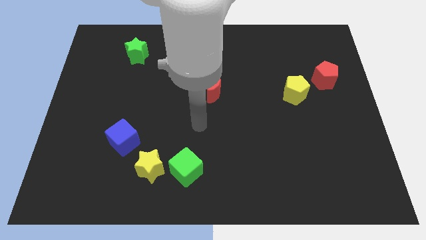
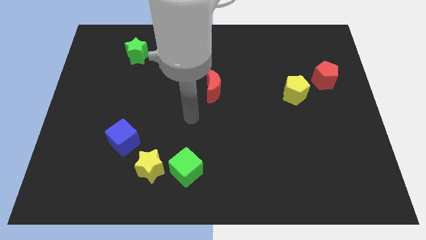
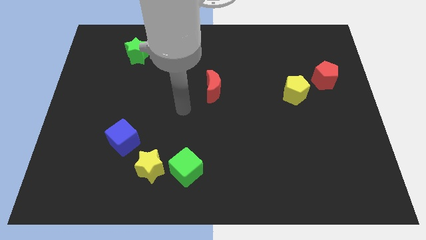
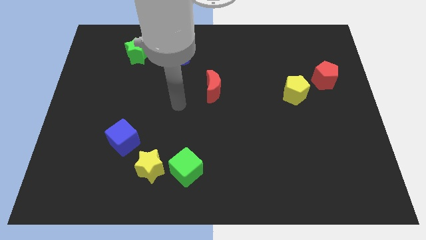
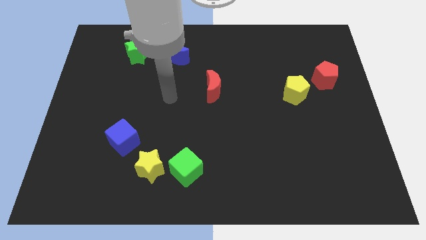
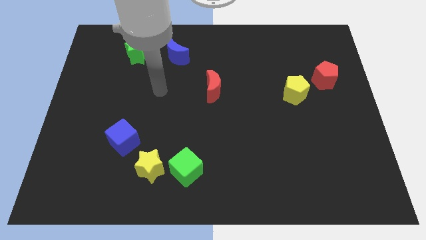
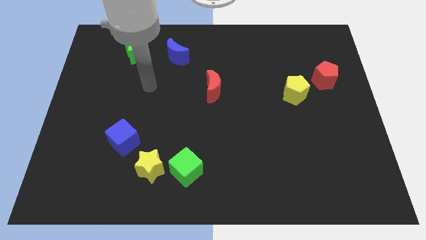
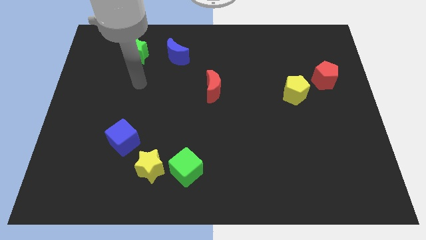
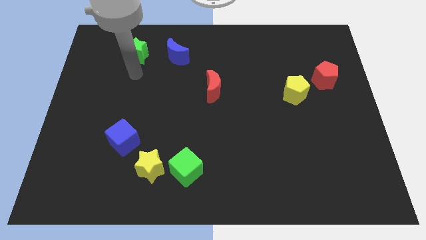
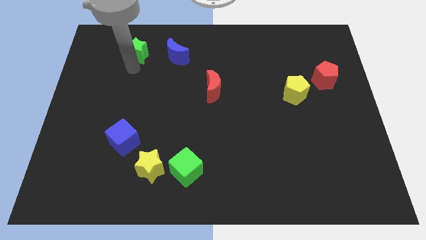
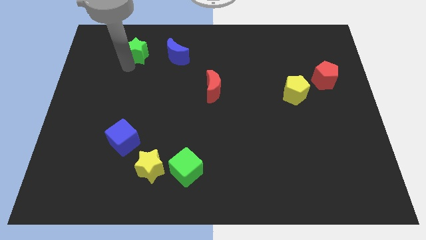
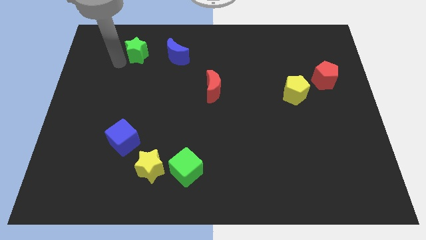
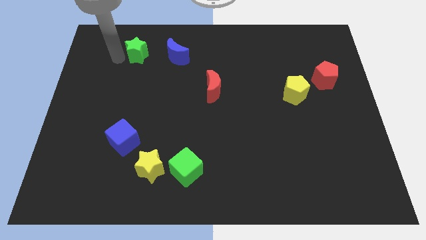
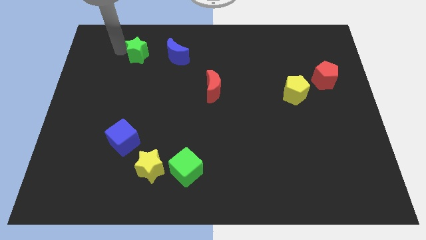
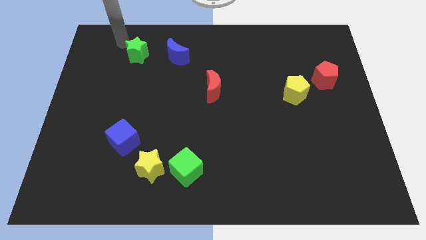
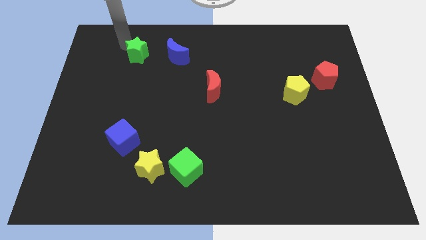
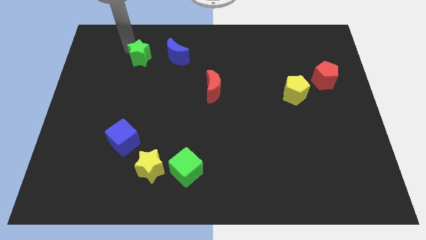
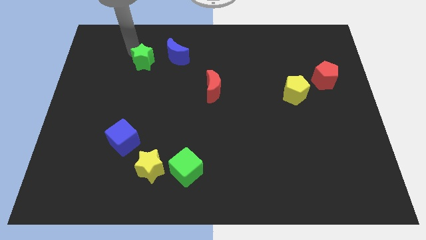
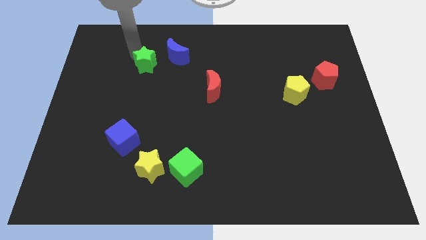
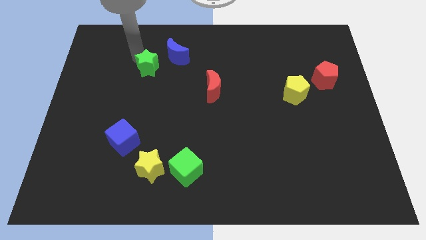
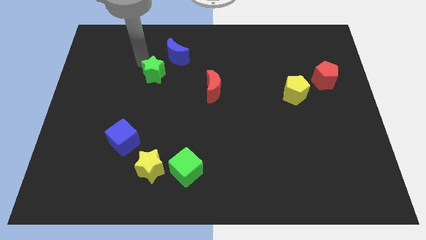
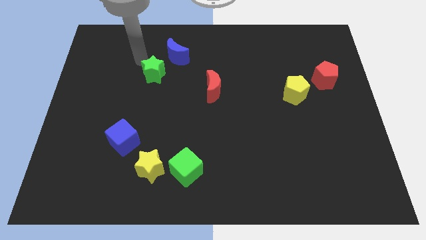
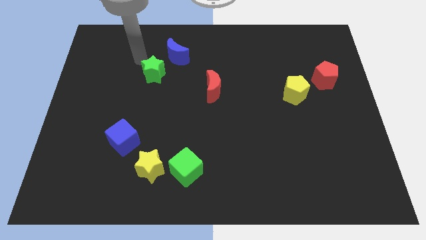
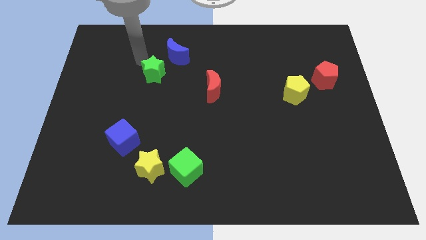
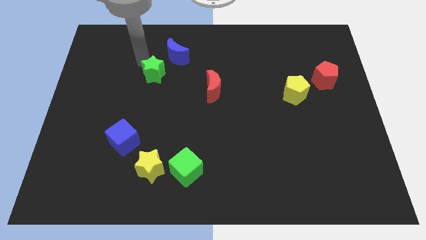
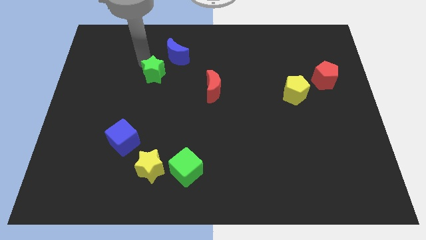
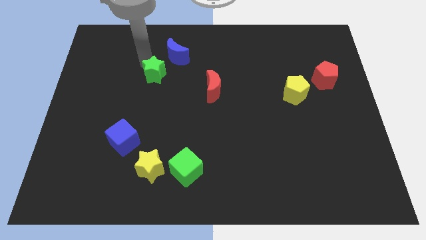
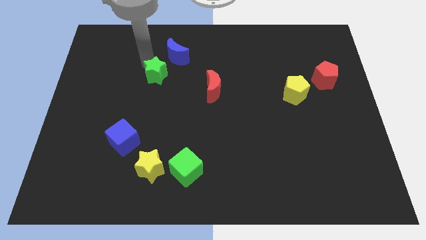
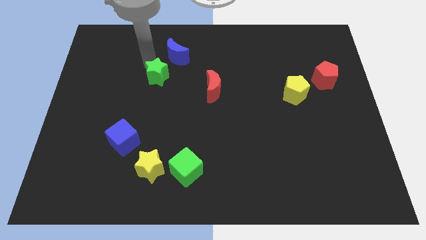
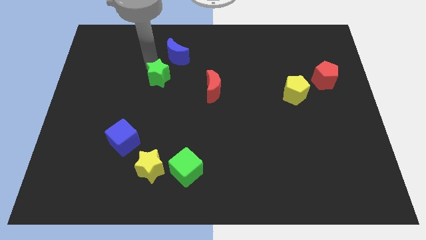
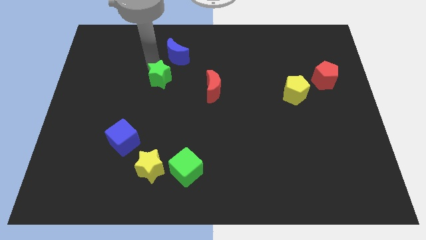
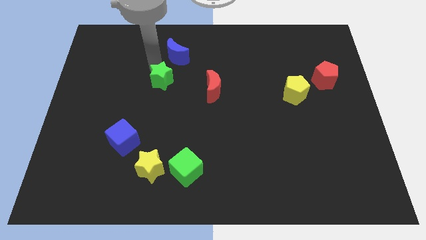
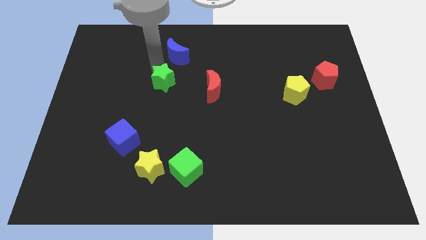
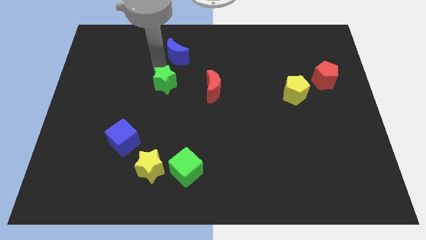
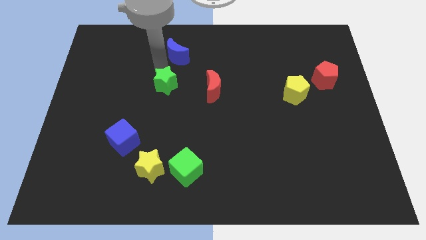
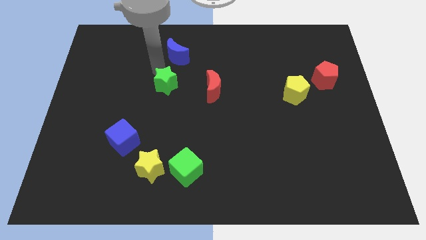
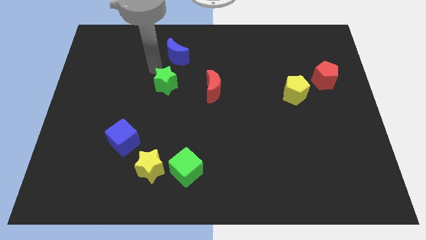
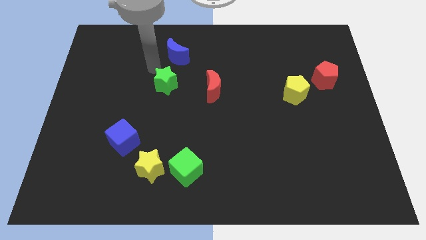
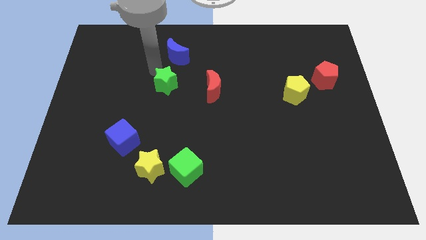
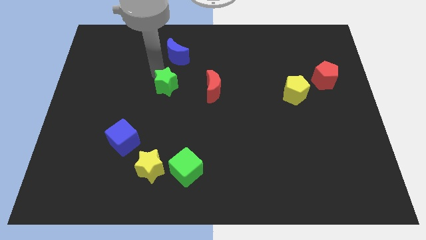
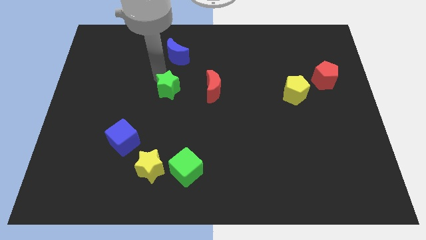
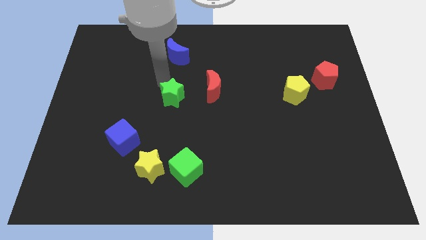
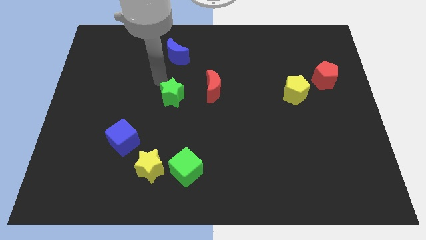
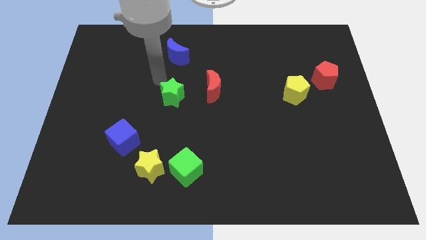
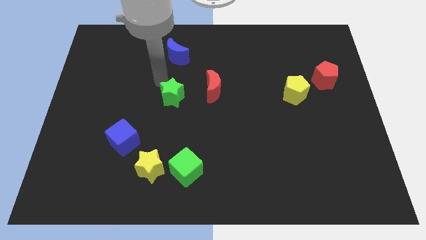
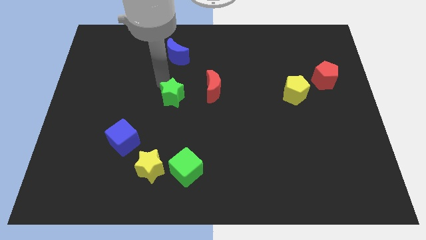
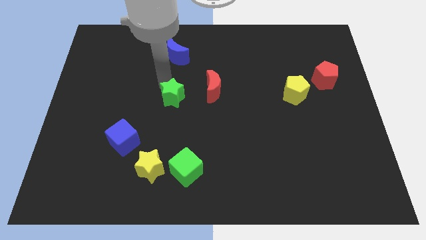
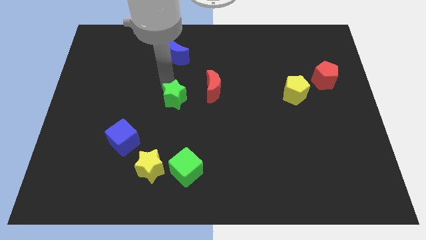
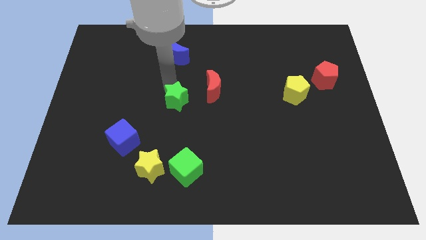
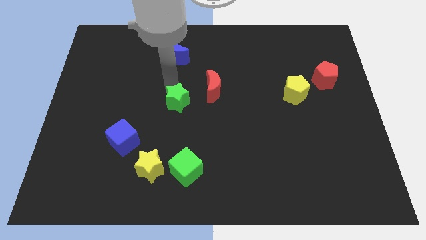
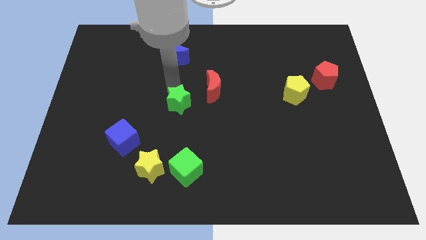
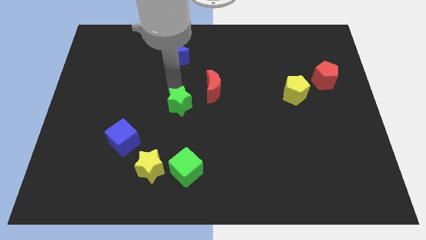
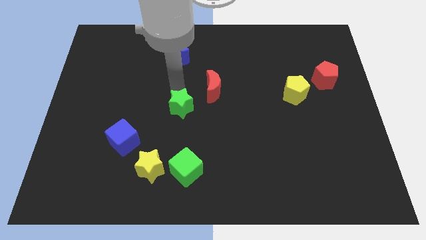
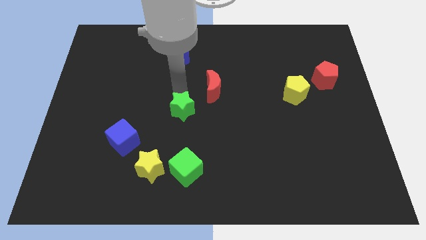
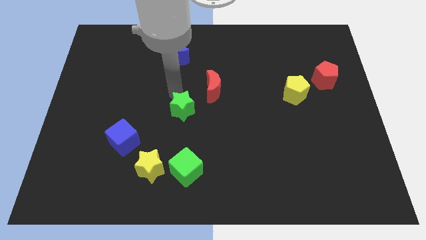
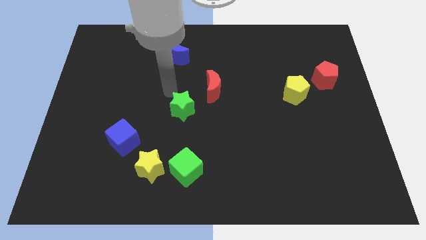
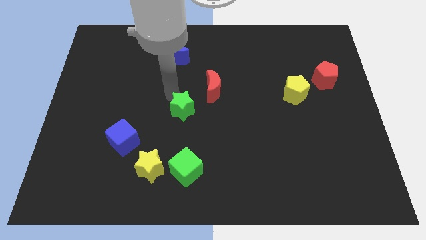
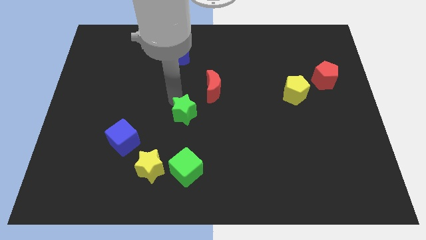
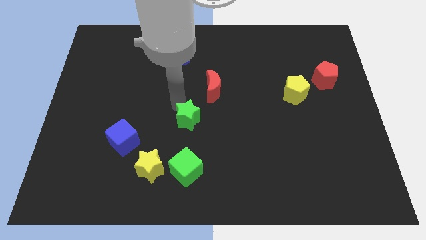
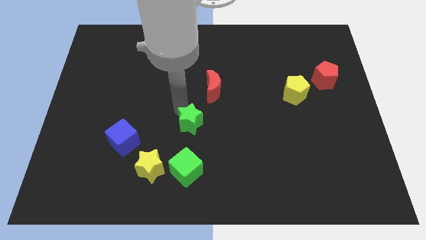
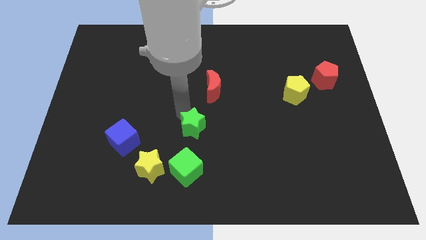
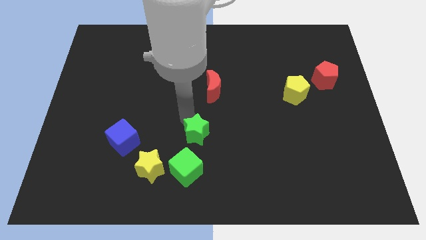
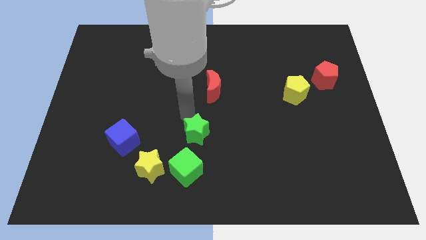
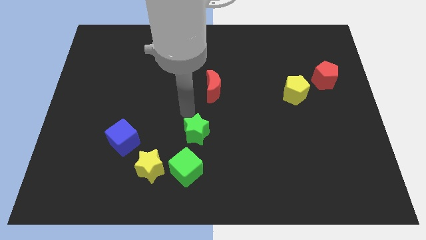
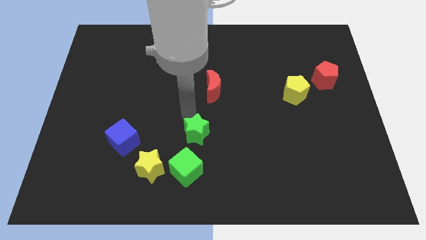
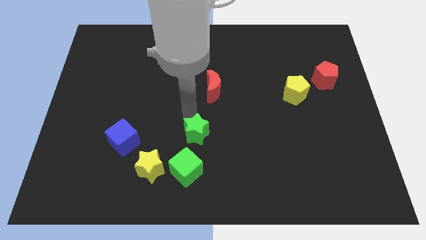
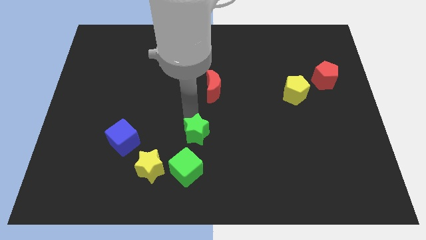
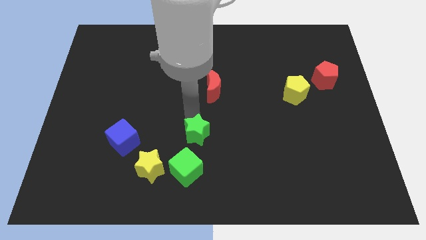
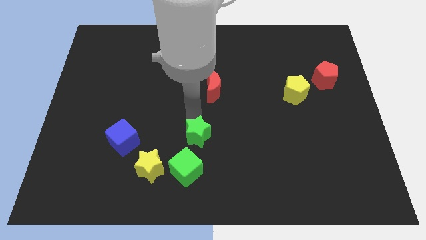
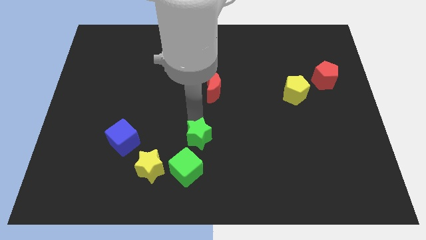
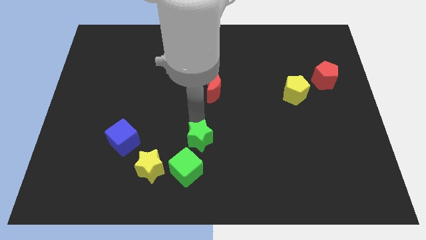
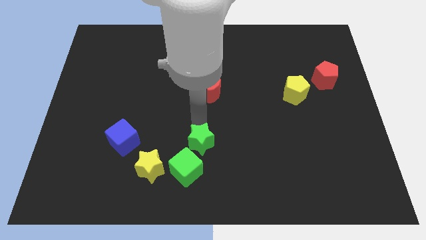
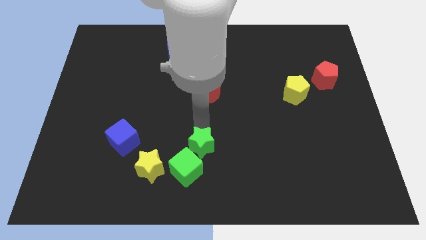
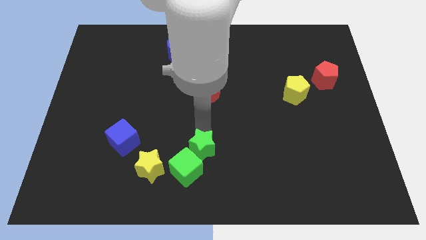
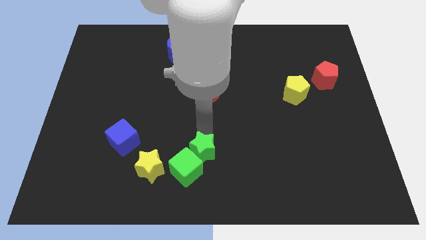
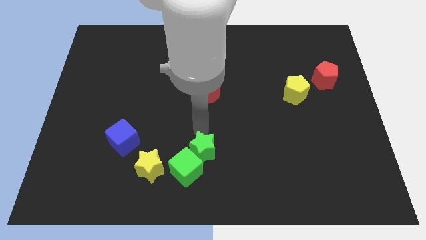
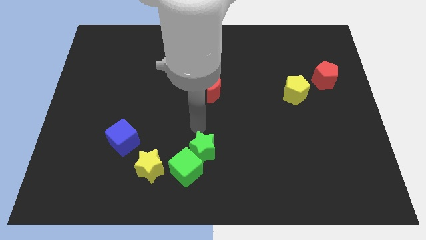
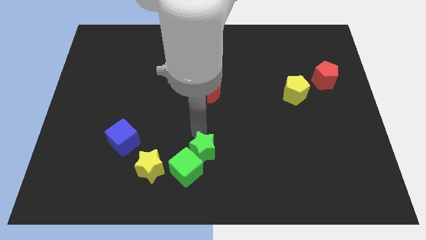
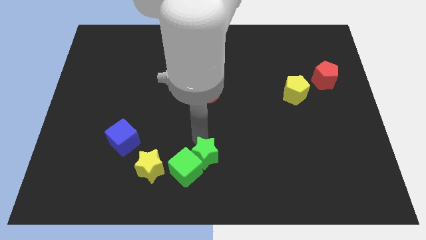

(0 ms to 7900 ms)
push the green star to the bottom
